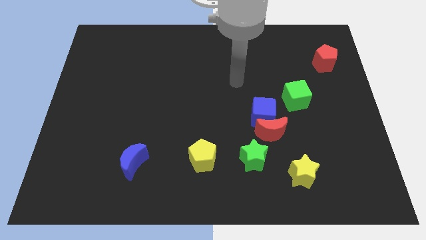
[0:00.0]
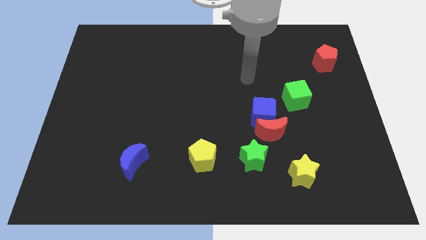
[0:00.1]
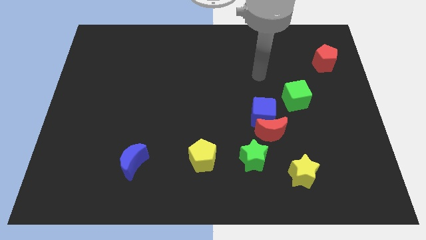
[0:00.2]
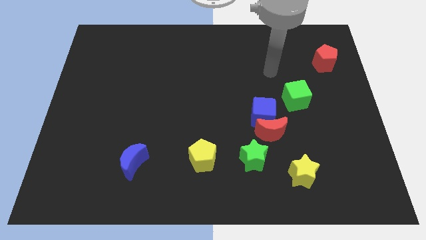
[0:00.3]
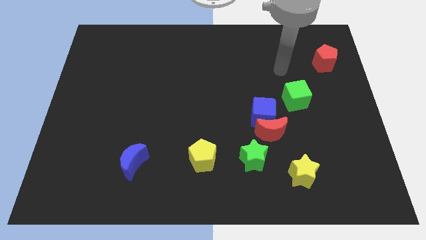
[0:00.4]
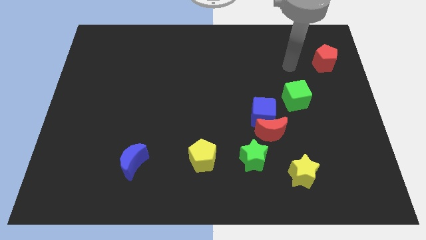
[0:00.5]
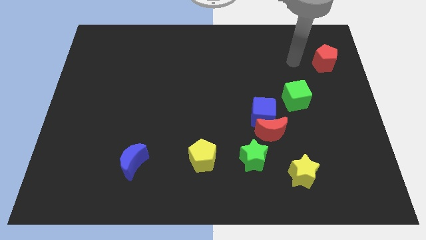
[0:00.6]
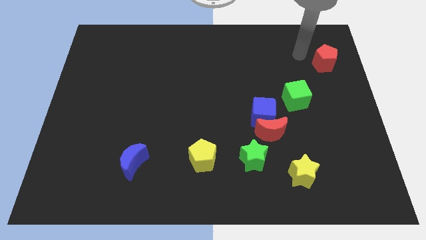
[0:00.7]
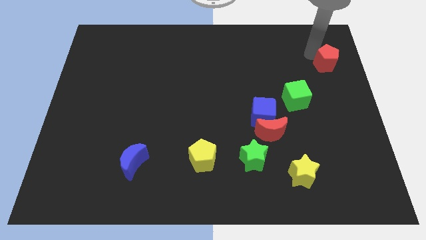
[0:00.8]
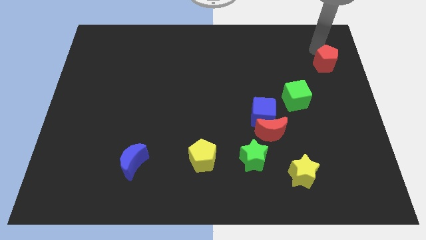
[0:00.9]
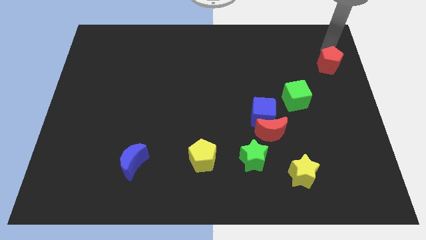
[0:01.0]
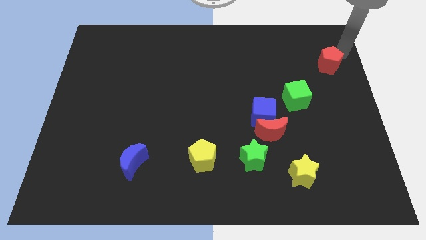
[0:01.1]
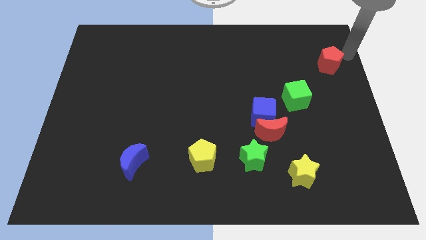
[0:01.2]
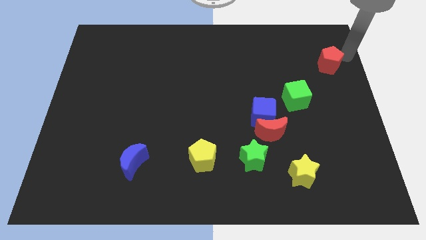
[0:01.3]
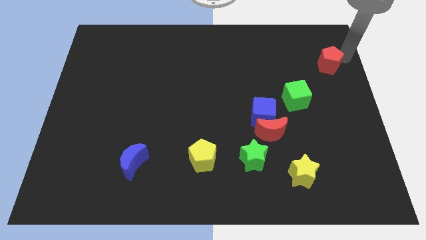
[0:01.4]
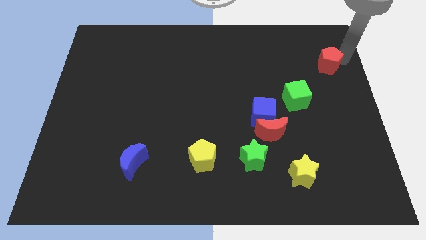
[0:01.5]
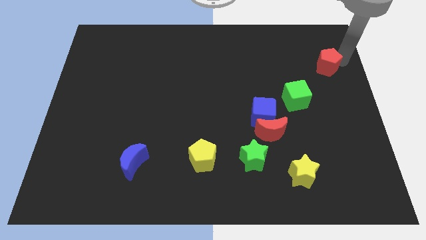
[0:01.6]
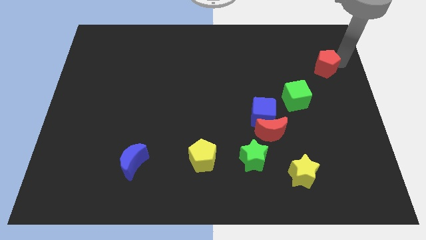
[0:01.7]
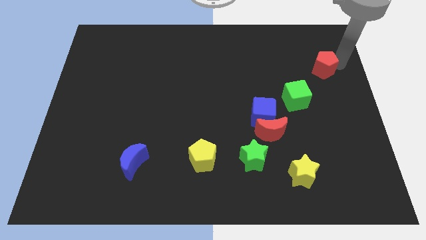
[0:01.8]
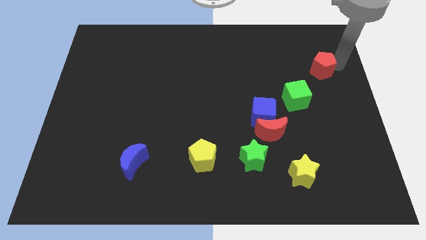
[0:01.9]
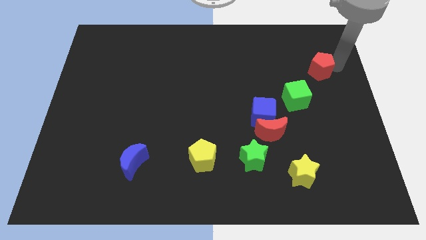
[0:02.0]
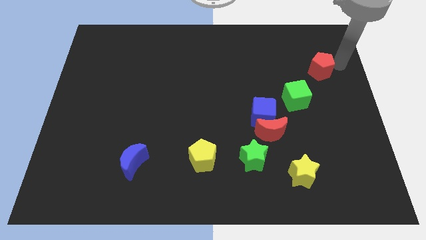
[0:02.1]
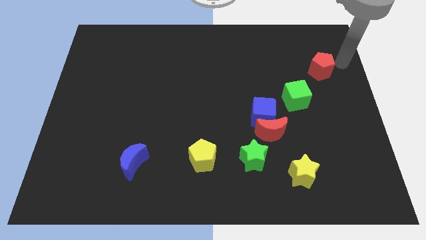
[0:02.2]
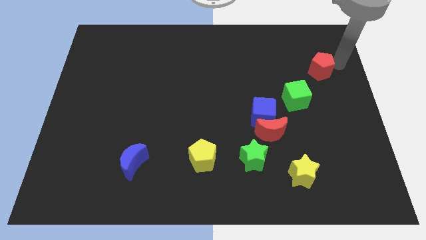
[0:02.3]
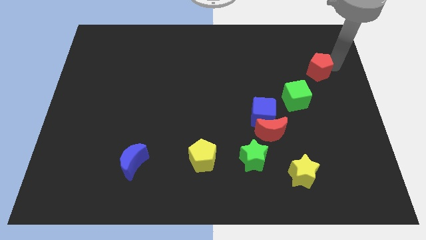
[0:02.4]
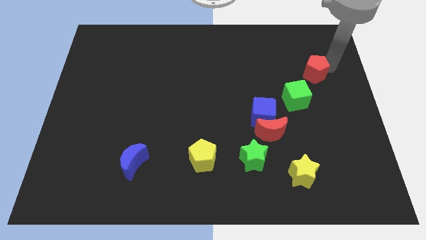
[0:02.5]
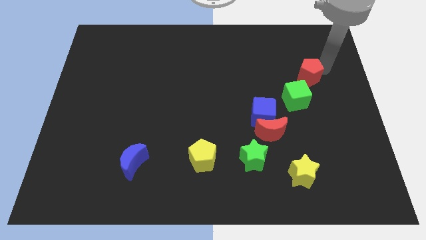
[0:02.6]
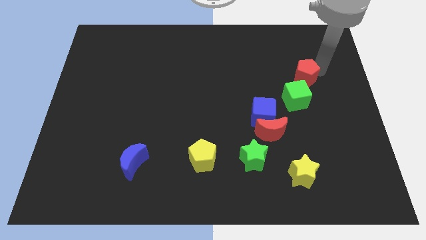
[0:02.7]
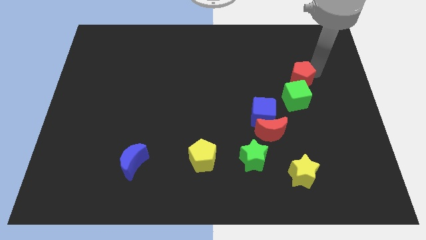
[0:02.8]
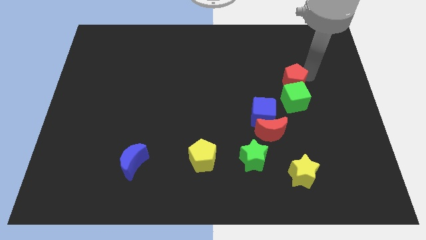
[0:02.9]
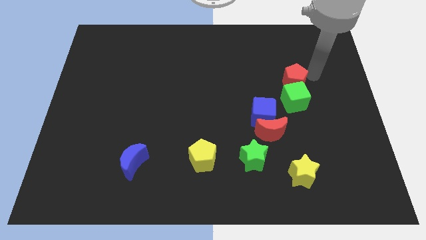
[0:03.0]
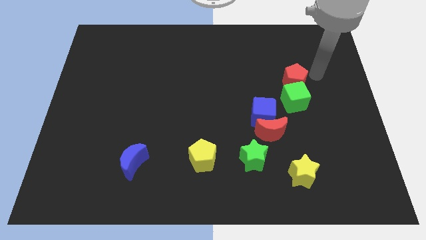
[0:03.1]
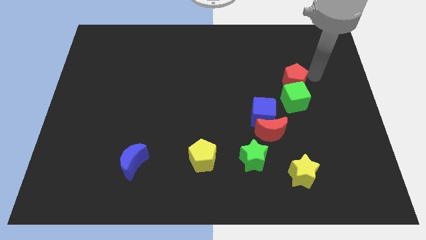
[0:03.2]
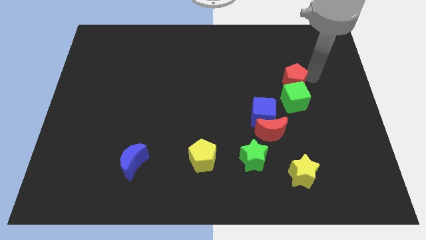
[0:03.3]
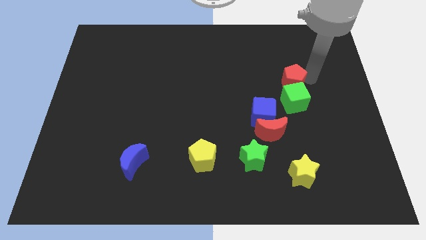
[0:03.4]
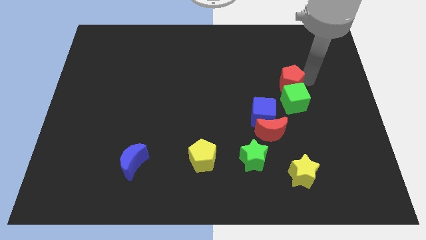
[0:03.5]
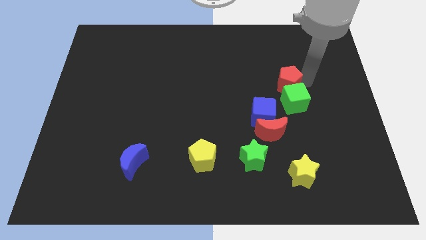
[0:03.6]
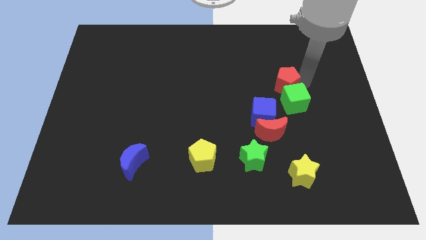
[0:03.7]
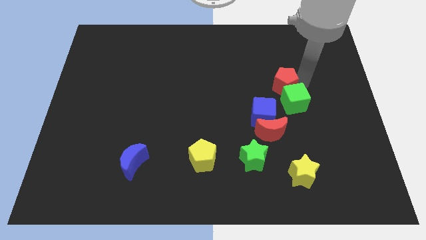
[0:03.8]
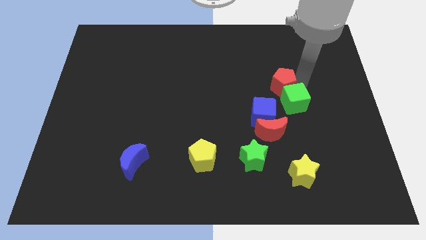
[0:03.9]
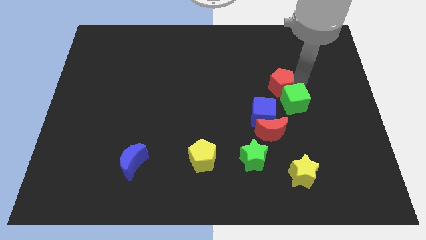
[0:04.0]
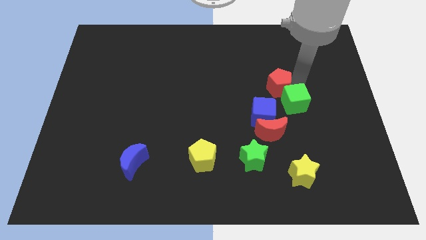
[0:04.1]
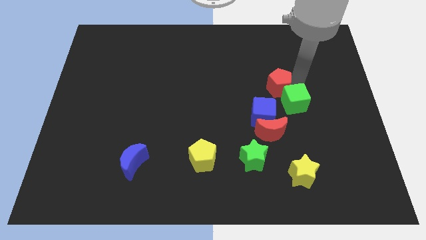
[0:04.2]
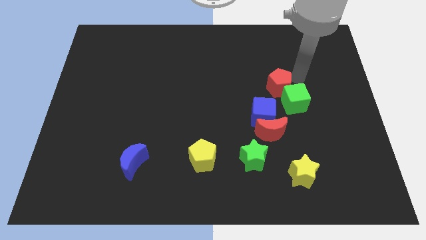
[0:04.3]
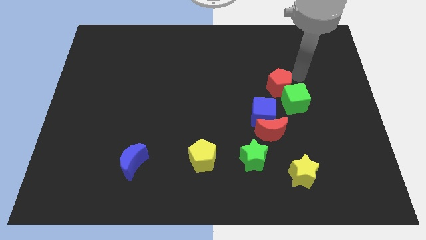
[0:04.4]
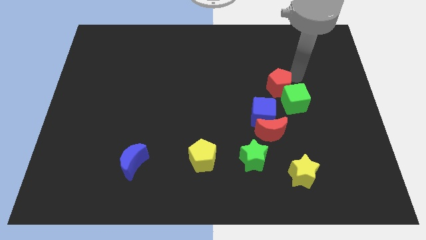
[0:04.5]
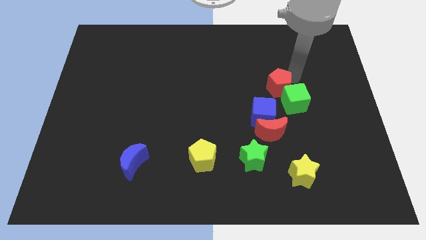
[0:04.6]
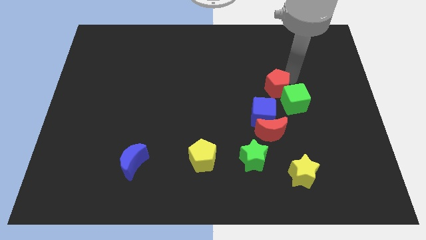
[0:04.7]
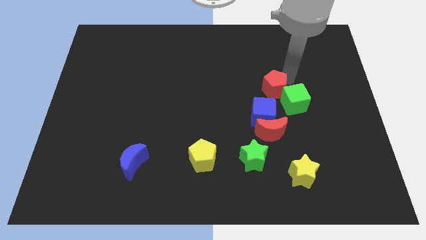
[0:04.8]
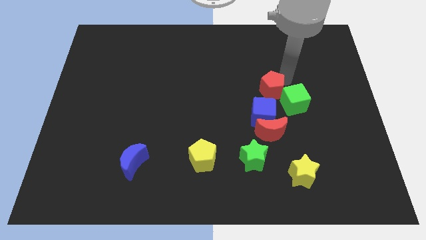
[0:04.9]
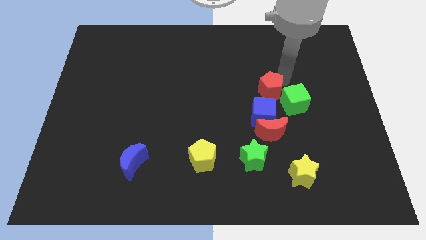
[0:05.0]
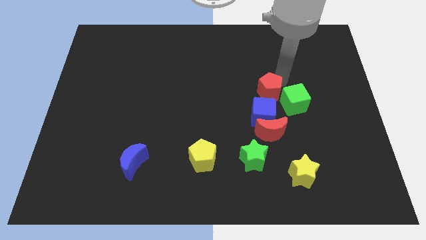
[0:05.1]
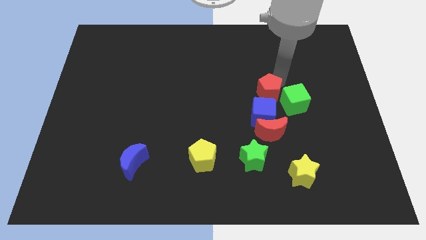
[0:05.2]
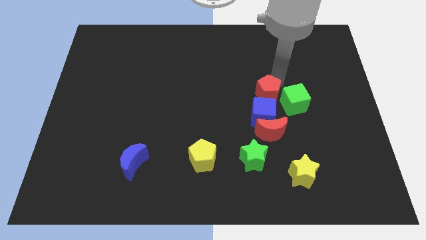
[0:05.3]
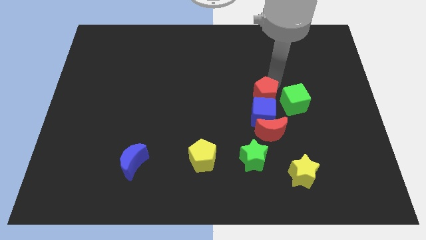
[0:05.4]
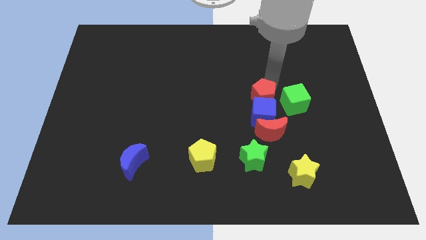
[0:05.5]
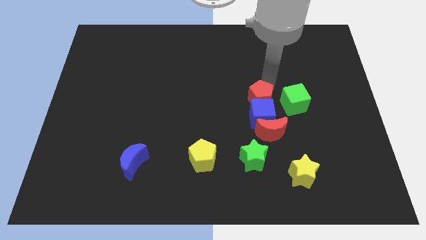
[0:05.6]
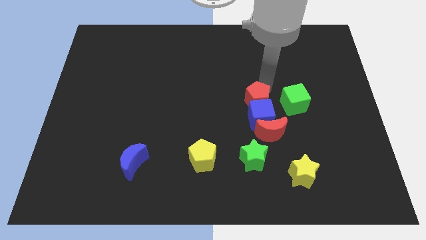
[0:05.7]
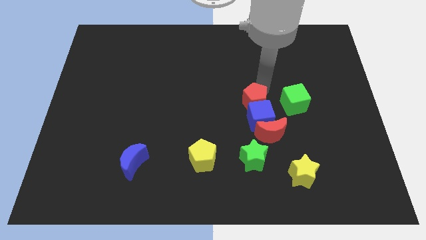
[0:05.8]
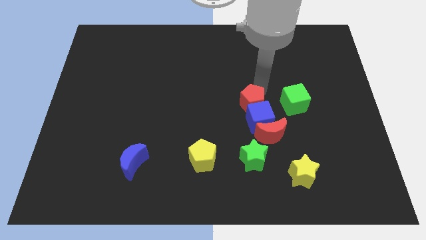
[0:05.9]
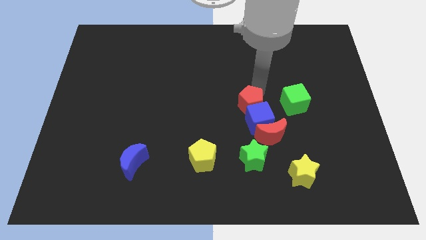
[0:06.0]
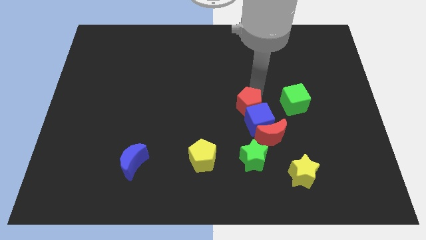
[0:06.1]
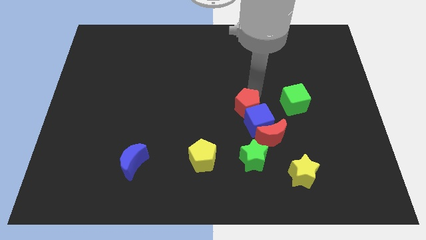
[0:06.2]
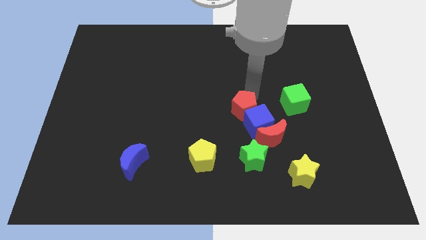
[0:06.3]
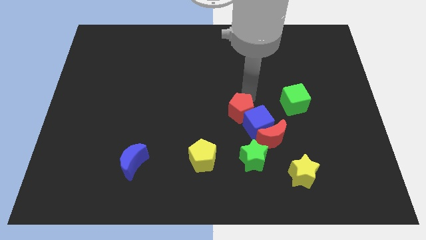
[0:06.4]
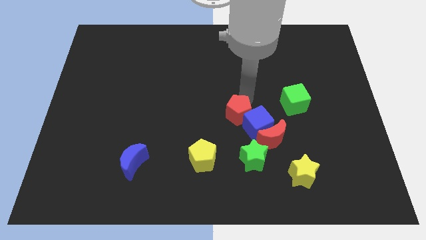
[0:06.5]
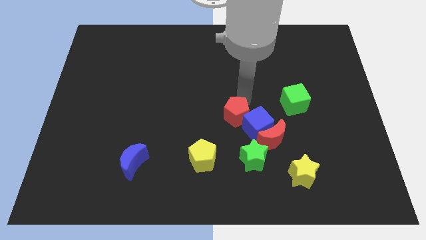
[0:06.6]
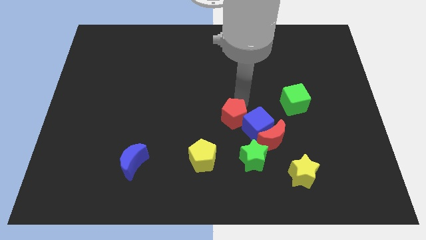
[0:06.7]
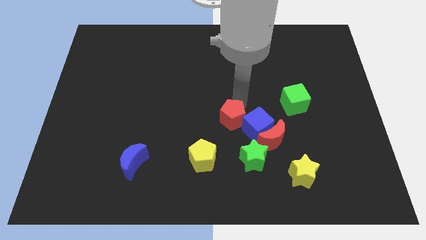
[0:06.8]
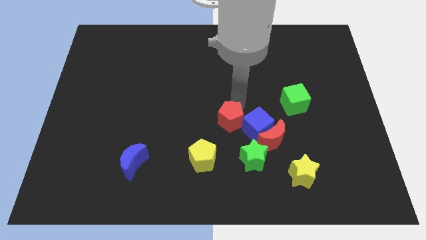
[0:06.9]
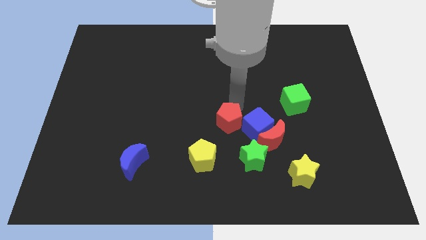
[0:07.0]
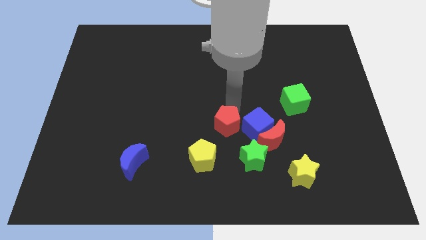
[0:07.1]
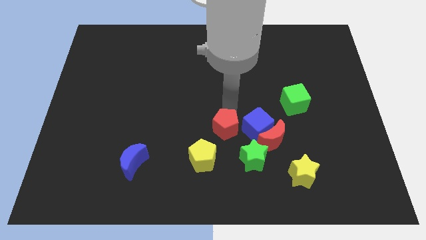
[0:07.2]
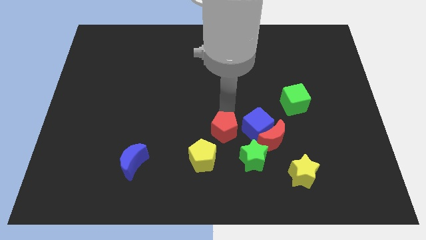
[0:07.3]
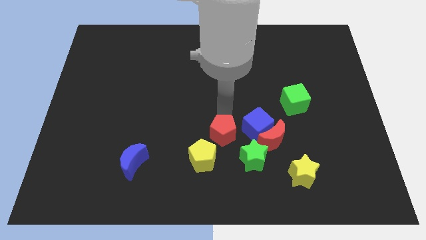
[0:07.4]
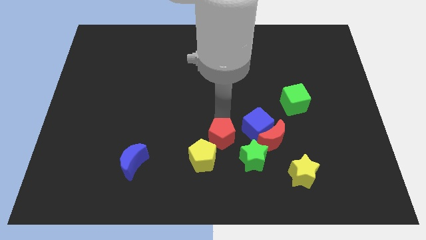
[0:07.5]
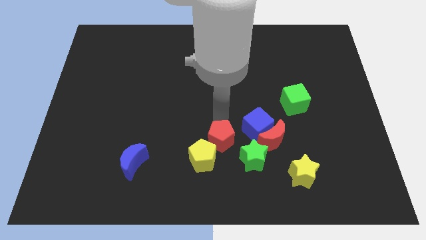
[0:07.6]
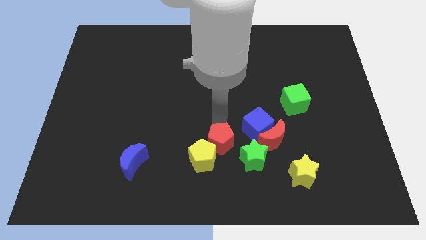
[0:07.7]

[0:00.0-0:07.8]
slide the red pentagon to the yellow pentagon
